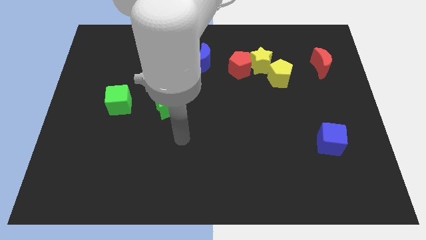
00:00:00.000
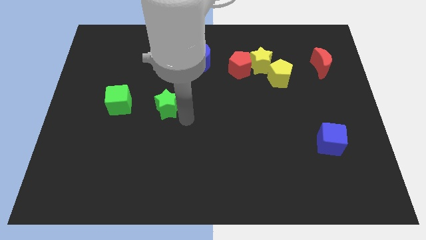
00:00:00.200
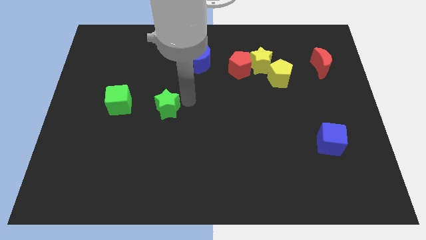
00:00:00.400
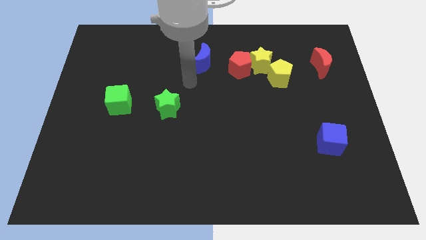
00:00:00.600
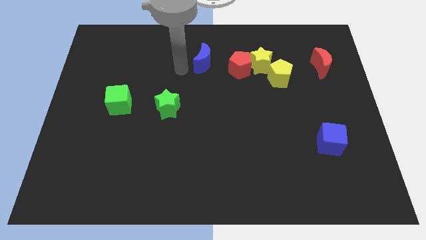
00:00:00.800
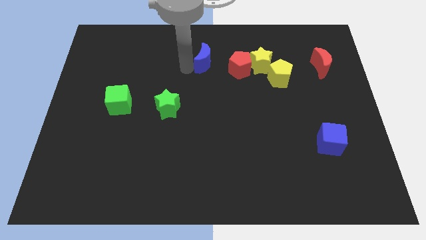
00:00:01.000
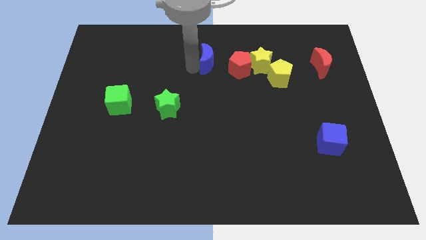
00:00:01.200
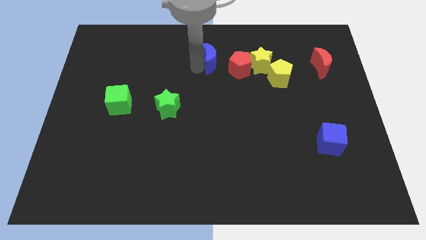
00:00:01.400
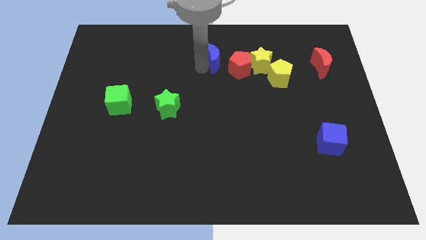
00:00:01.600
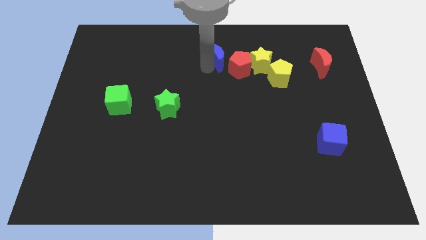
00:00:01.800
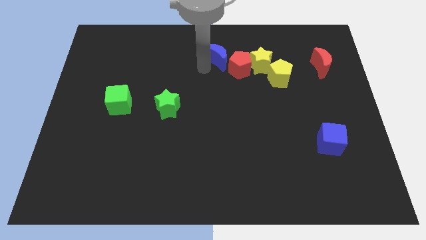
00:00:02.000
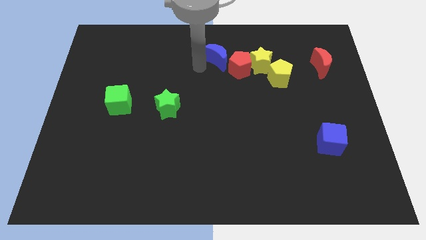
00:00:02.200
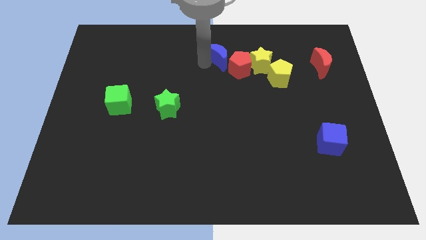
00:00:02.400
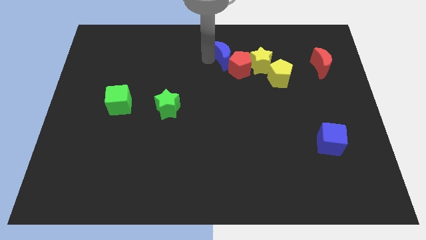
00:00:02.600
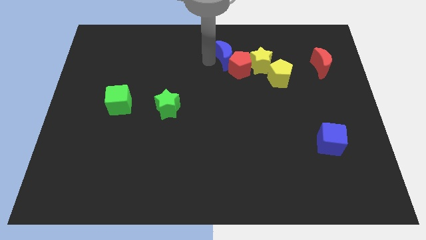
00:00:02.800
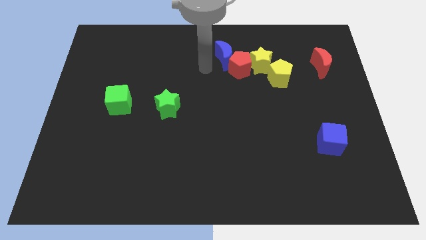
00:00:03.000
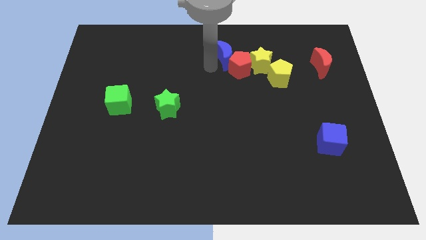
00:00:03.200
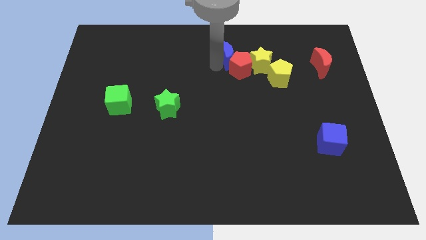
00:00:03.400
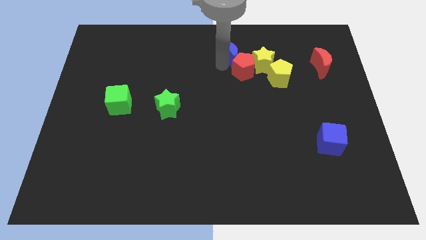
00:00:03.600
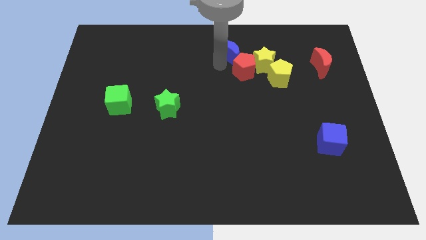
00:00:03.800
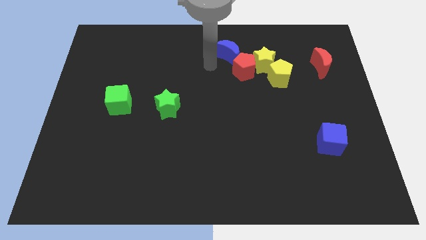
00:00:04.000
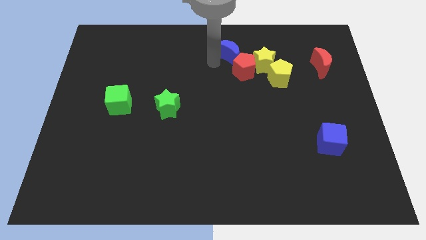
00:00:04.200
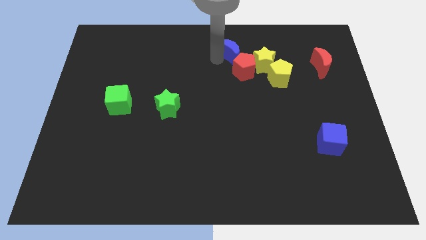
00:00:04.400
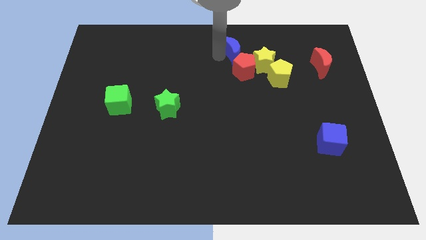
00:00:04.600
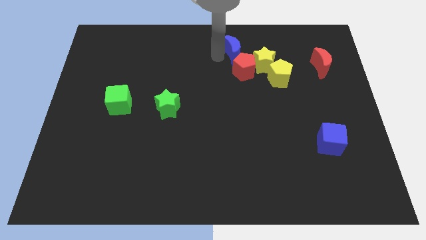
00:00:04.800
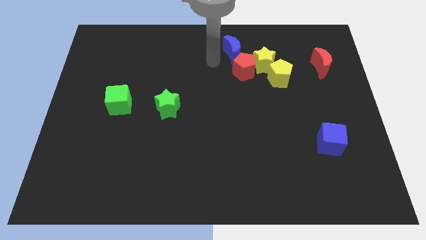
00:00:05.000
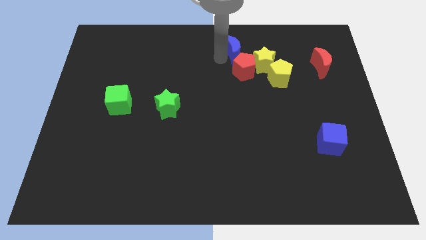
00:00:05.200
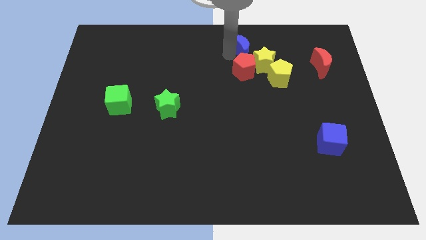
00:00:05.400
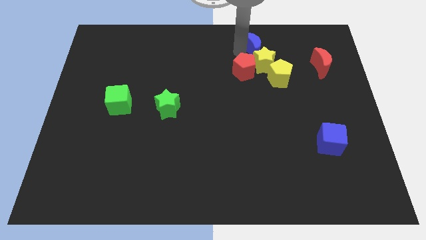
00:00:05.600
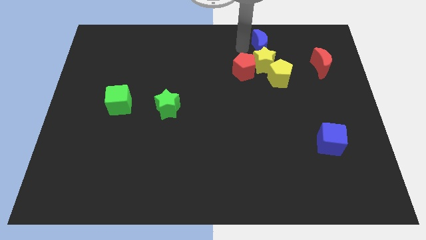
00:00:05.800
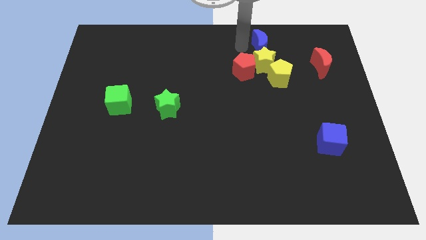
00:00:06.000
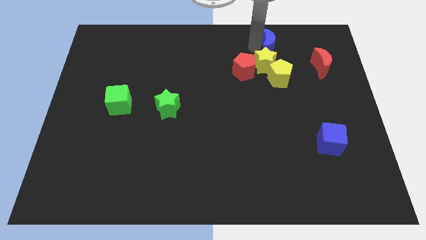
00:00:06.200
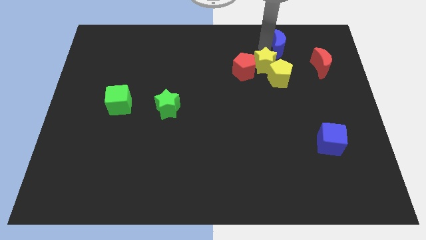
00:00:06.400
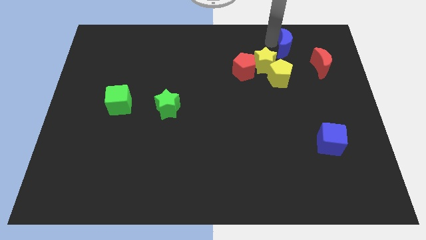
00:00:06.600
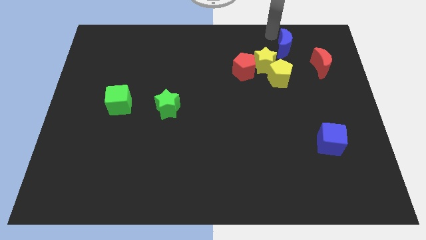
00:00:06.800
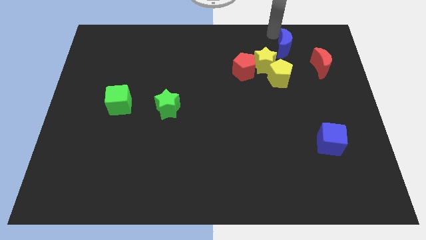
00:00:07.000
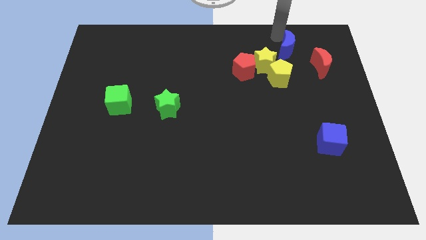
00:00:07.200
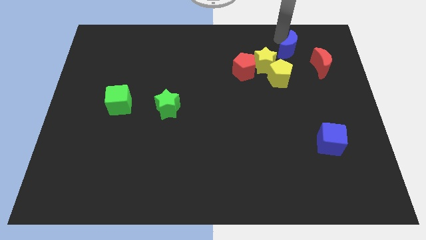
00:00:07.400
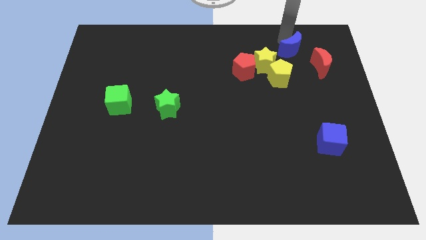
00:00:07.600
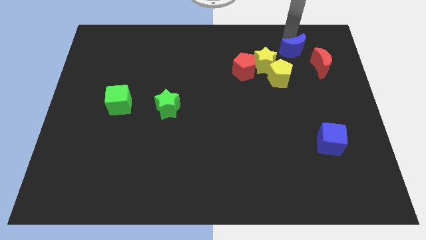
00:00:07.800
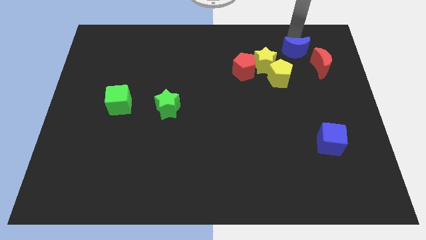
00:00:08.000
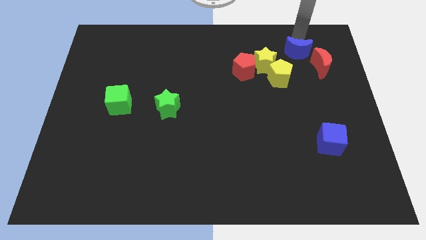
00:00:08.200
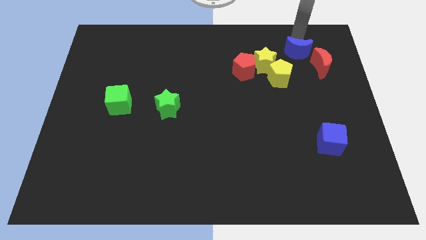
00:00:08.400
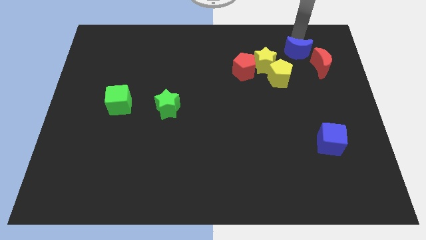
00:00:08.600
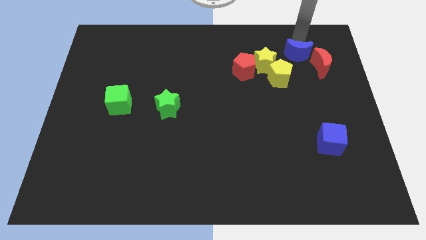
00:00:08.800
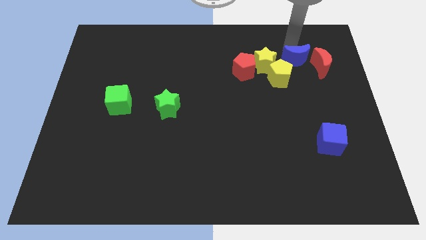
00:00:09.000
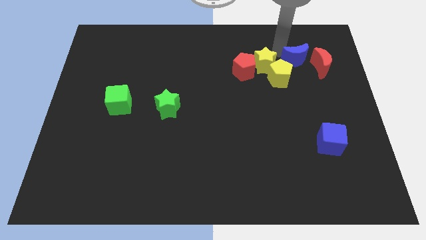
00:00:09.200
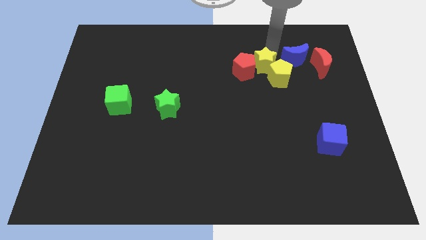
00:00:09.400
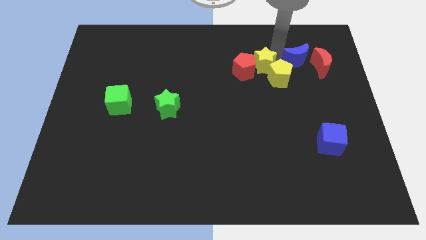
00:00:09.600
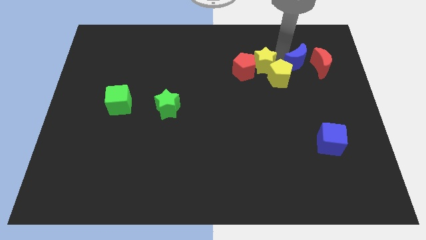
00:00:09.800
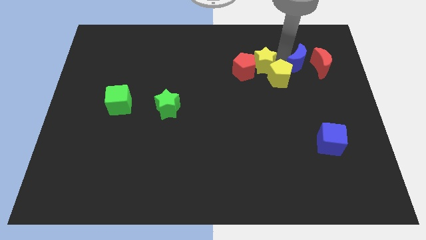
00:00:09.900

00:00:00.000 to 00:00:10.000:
slide the blue moon to the red moon

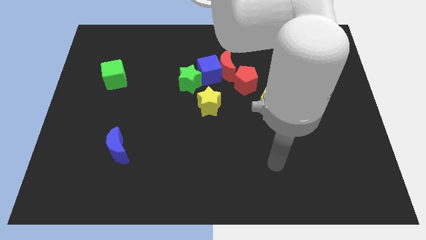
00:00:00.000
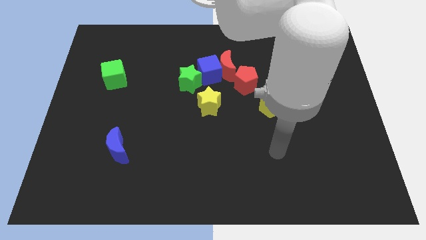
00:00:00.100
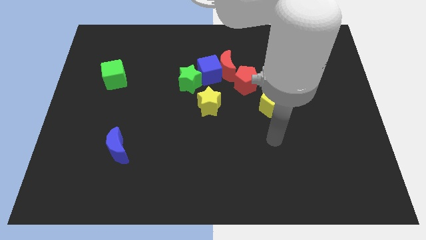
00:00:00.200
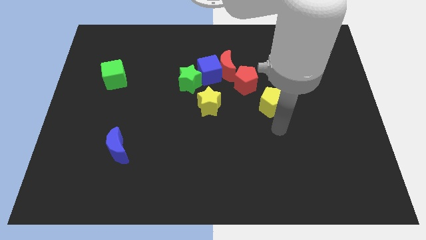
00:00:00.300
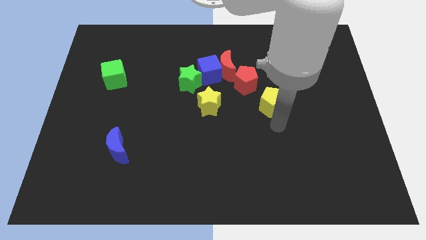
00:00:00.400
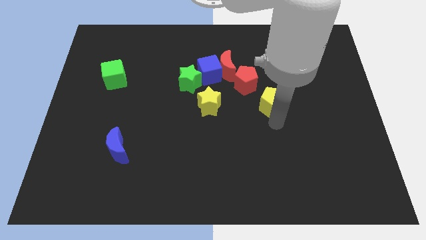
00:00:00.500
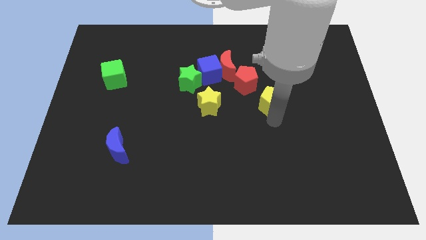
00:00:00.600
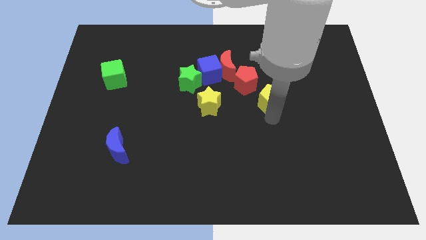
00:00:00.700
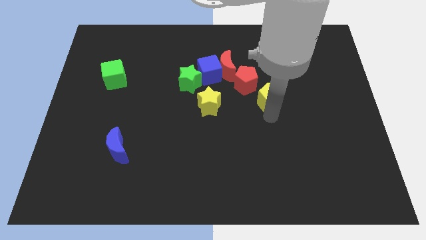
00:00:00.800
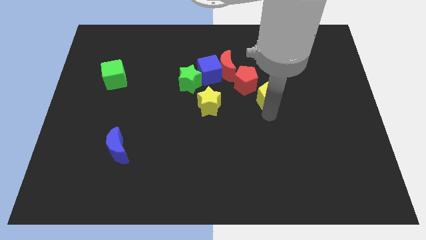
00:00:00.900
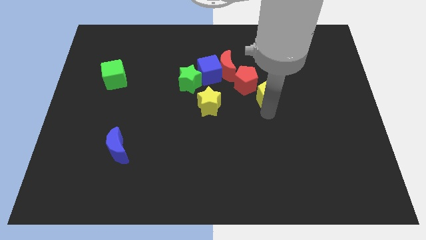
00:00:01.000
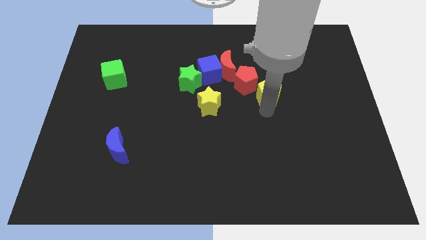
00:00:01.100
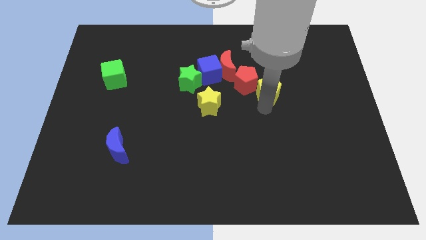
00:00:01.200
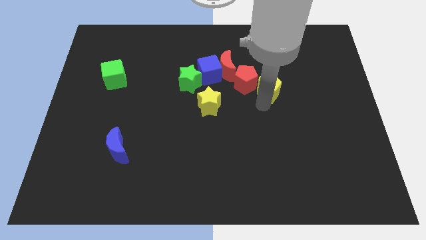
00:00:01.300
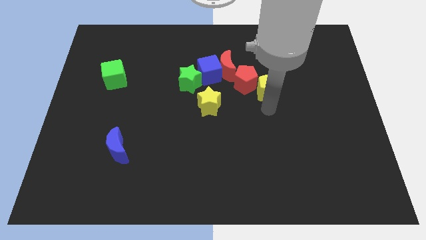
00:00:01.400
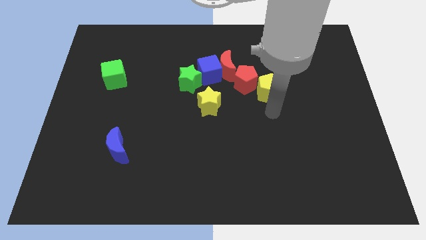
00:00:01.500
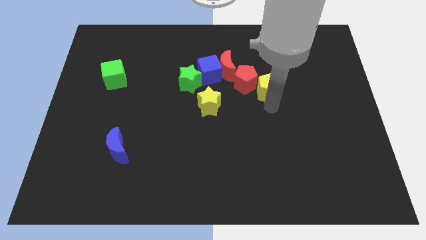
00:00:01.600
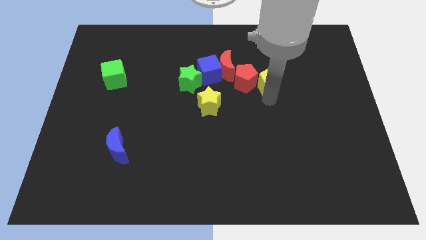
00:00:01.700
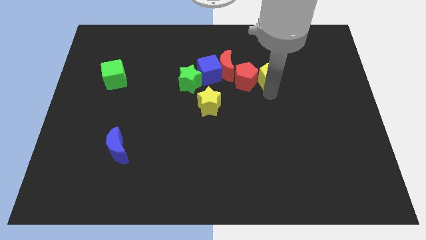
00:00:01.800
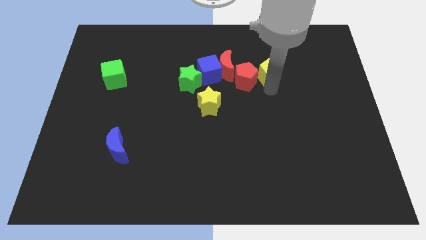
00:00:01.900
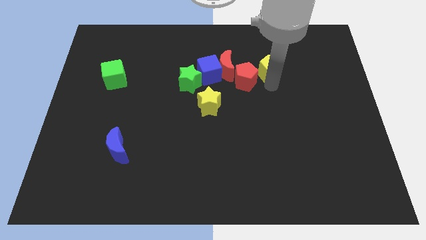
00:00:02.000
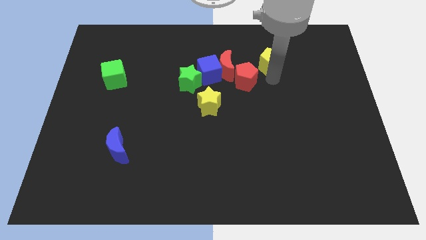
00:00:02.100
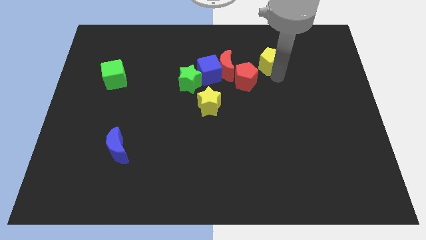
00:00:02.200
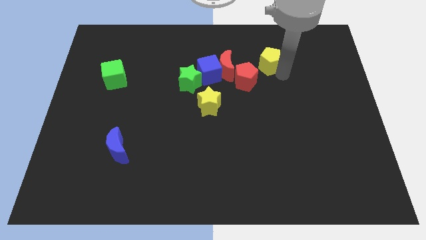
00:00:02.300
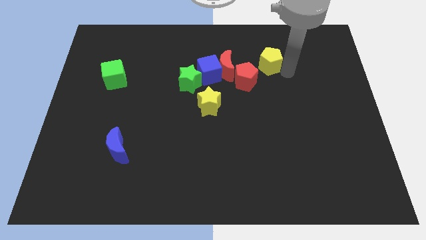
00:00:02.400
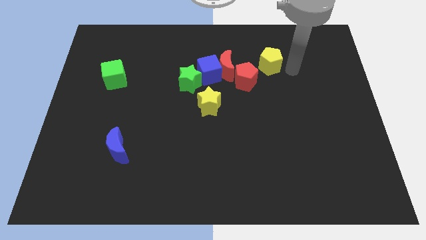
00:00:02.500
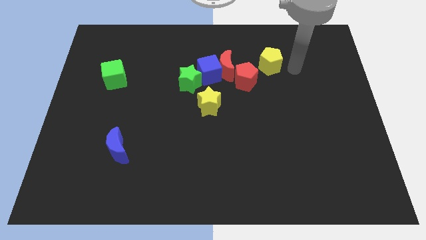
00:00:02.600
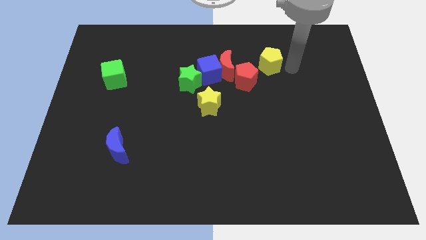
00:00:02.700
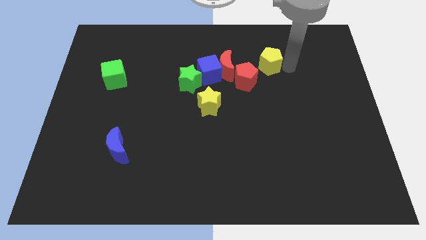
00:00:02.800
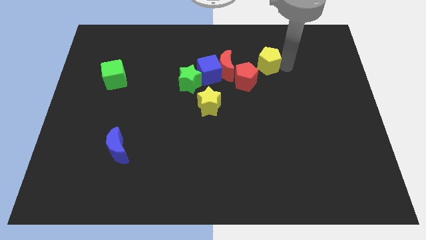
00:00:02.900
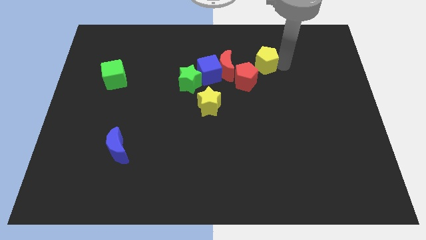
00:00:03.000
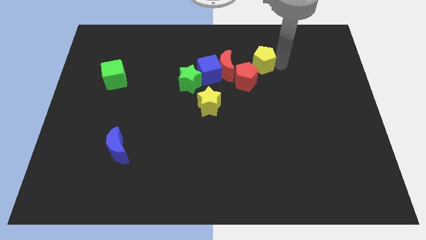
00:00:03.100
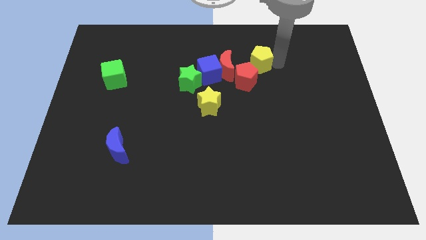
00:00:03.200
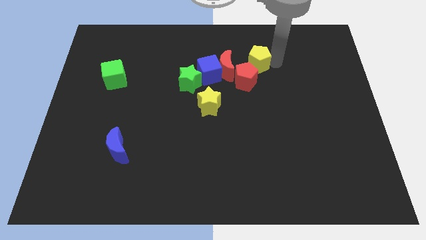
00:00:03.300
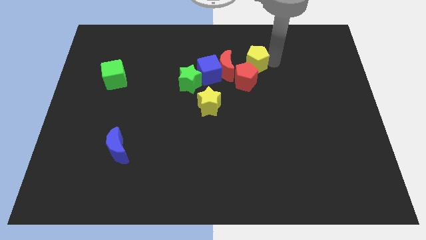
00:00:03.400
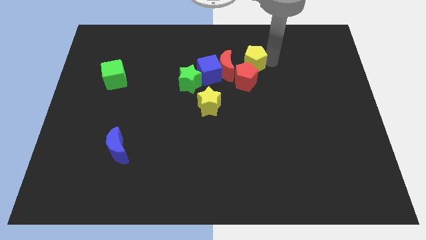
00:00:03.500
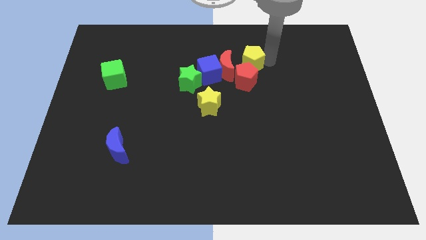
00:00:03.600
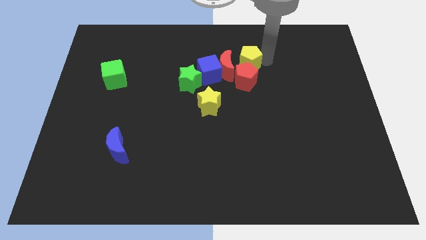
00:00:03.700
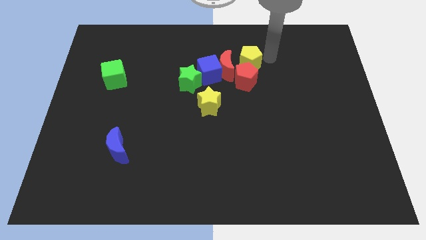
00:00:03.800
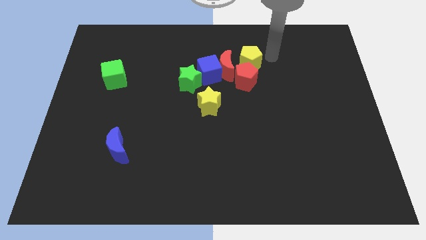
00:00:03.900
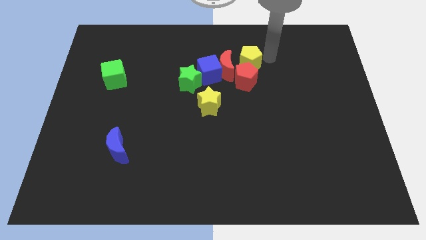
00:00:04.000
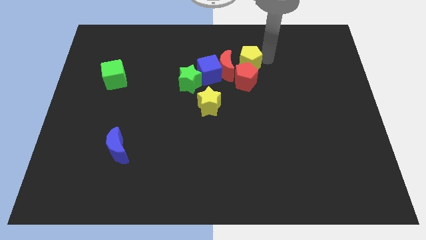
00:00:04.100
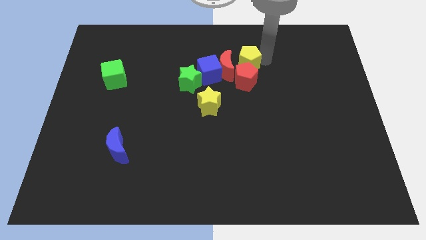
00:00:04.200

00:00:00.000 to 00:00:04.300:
put the yellow pentagon close to the red moon
